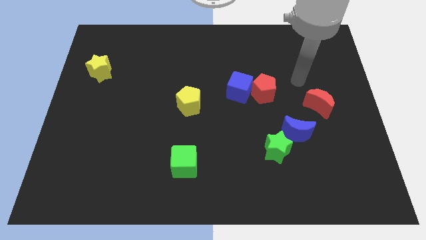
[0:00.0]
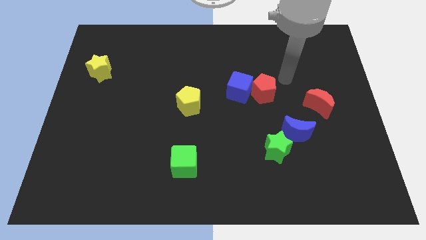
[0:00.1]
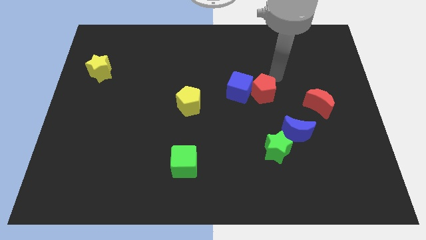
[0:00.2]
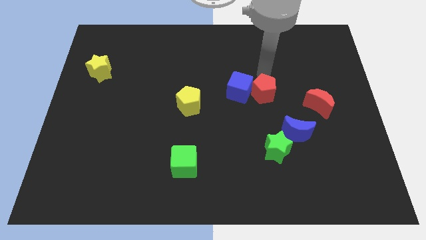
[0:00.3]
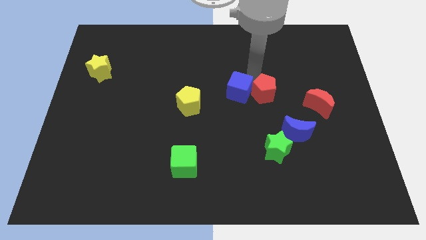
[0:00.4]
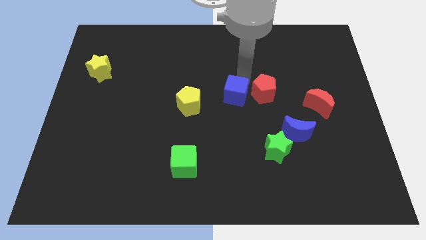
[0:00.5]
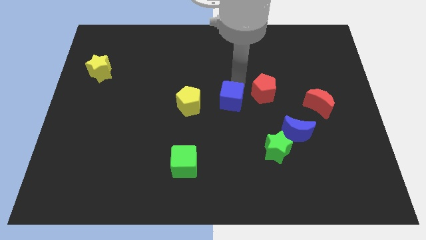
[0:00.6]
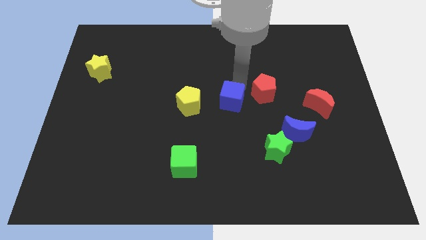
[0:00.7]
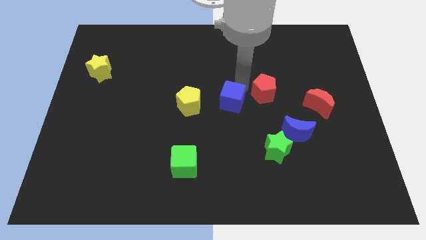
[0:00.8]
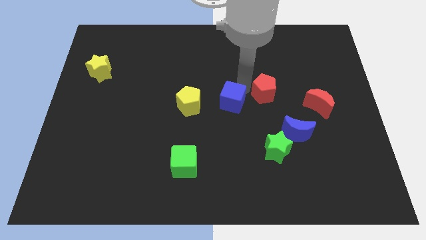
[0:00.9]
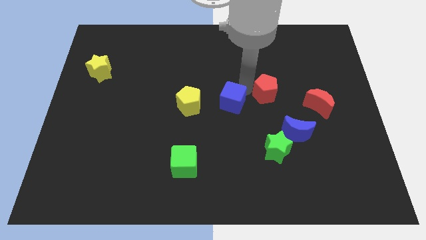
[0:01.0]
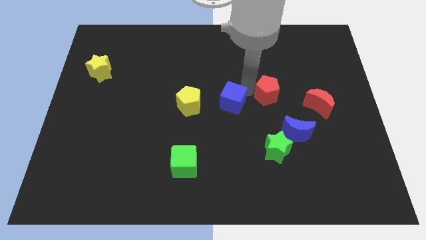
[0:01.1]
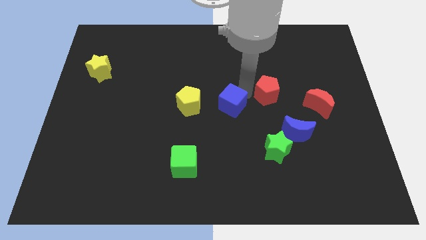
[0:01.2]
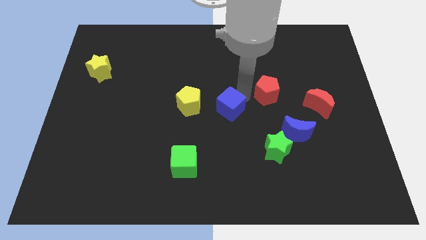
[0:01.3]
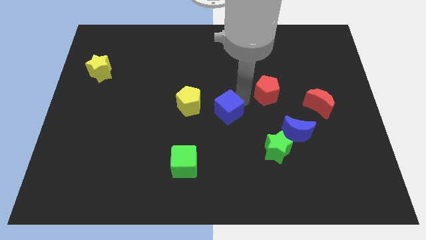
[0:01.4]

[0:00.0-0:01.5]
move the red pentagon away from the blue cube

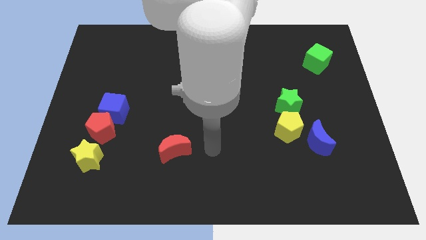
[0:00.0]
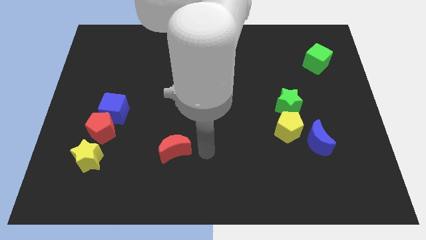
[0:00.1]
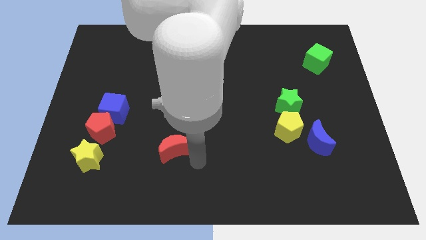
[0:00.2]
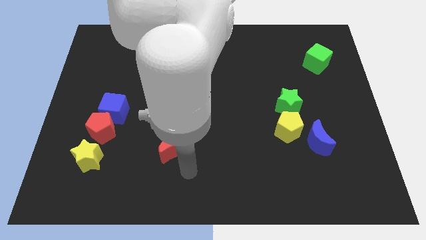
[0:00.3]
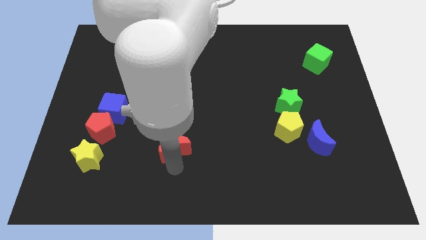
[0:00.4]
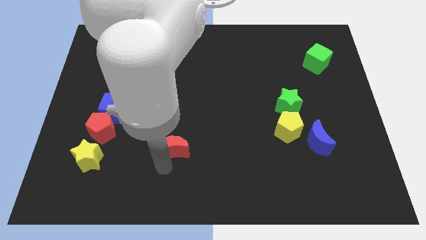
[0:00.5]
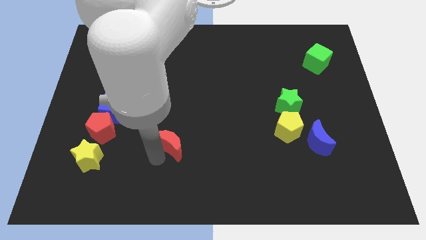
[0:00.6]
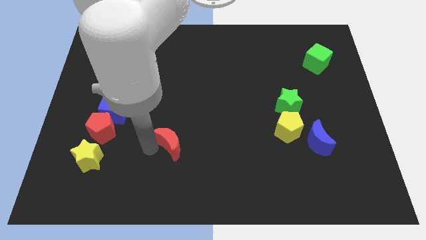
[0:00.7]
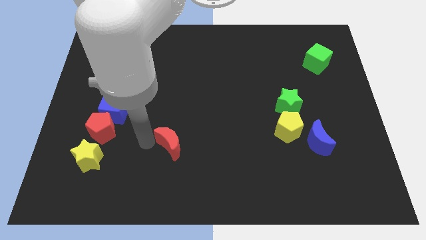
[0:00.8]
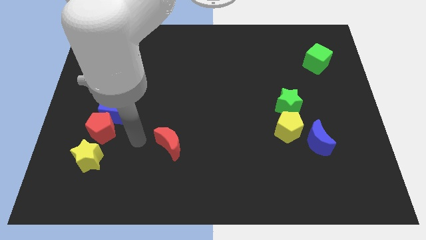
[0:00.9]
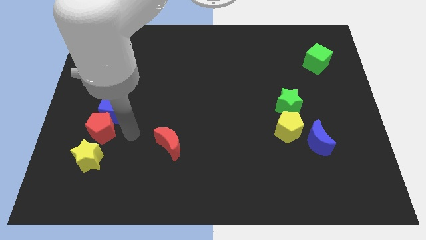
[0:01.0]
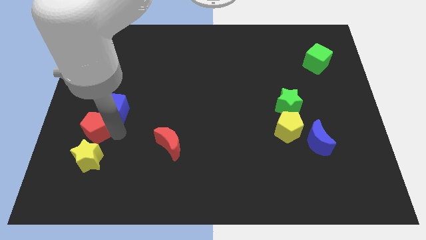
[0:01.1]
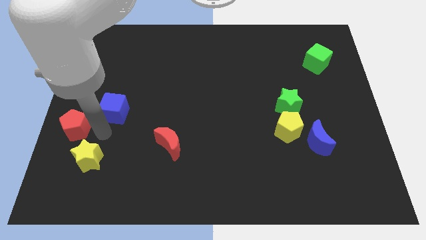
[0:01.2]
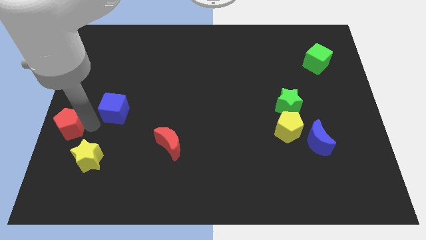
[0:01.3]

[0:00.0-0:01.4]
pull the blue cube apart from the red pentagon

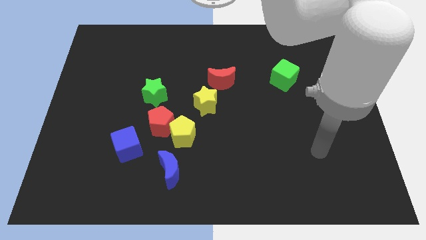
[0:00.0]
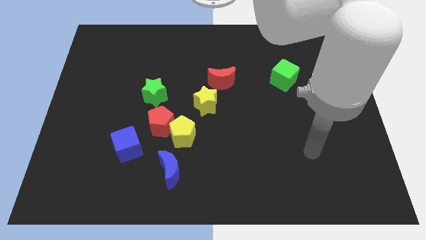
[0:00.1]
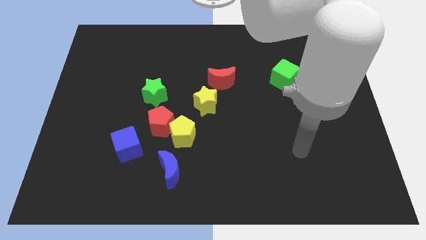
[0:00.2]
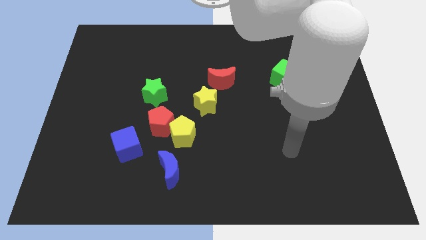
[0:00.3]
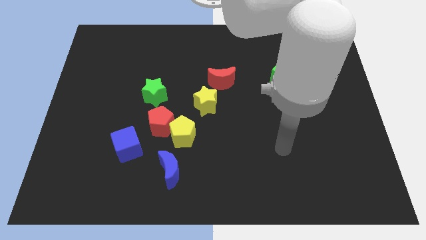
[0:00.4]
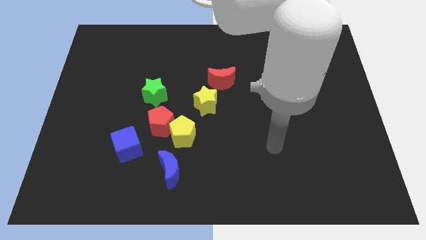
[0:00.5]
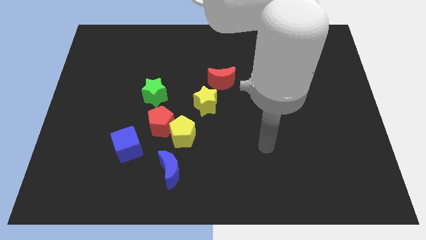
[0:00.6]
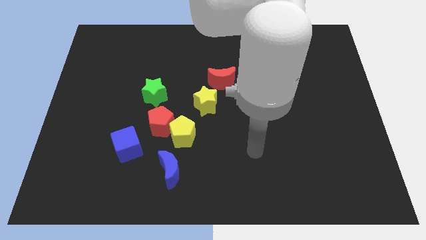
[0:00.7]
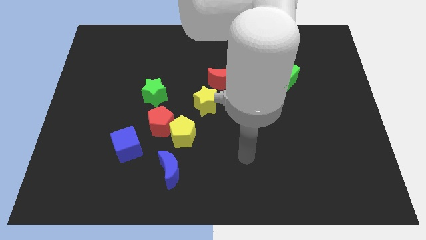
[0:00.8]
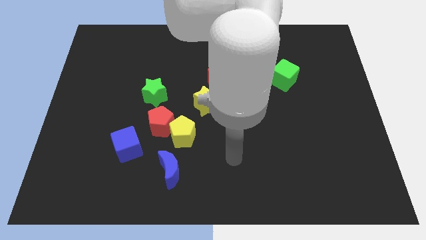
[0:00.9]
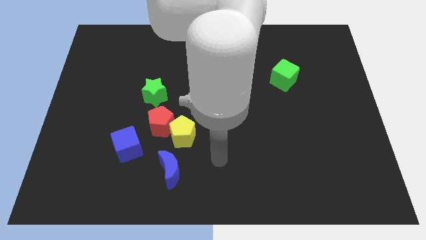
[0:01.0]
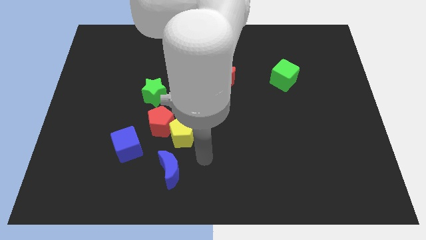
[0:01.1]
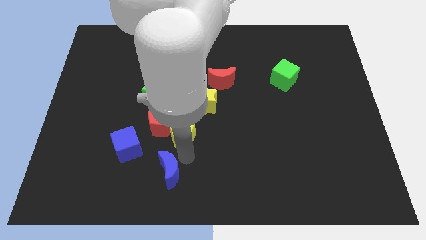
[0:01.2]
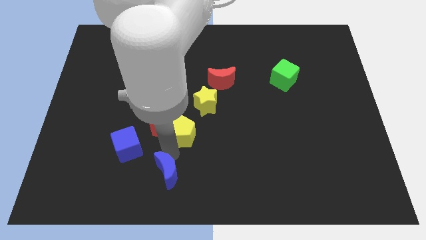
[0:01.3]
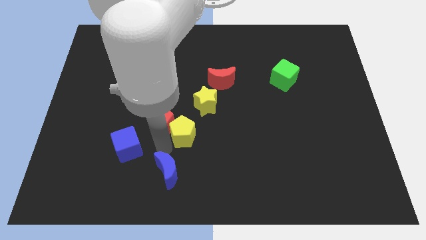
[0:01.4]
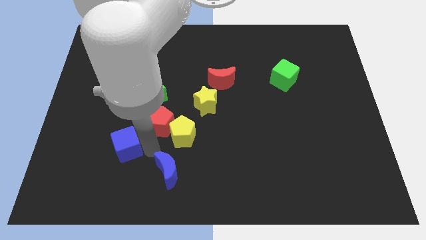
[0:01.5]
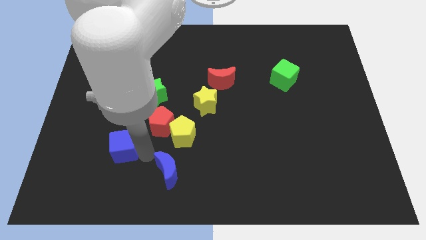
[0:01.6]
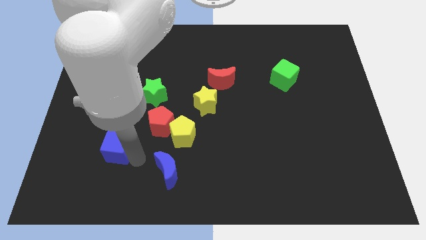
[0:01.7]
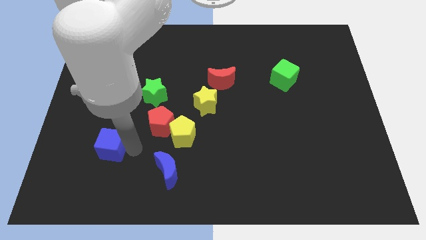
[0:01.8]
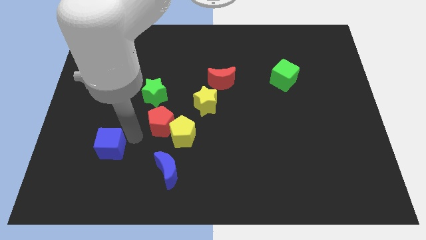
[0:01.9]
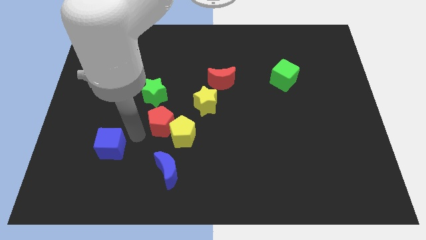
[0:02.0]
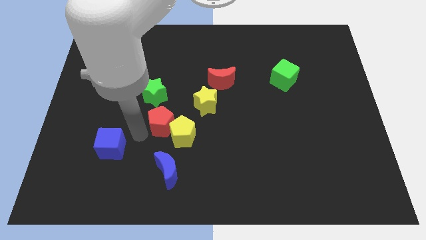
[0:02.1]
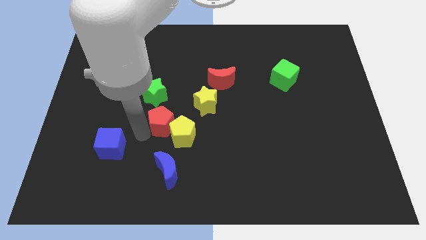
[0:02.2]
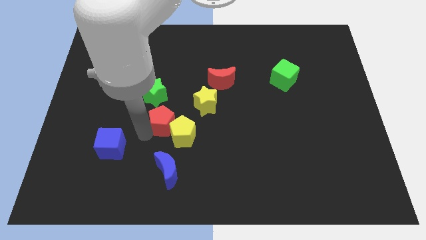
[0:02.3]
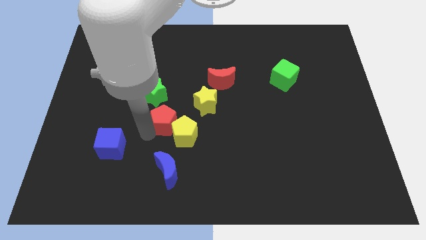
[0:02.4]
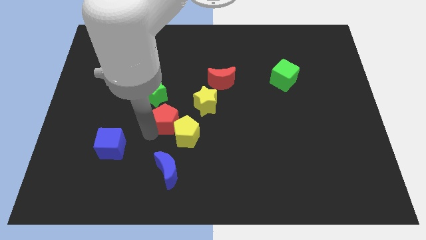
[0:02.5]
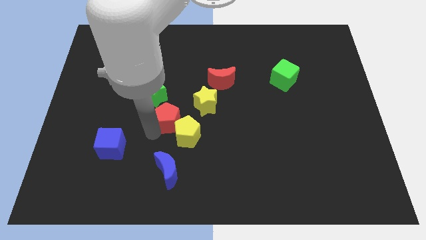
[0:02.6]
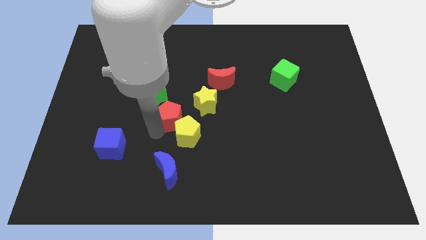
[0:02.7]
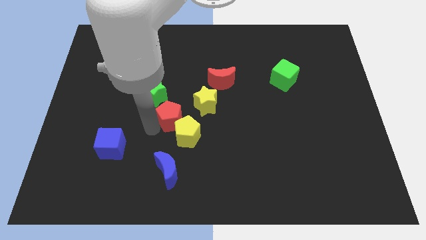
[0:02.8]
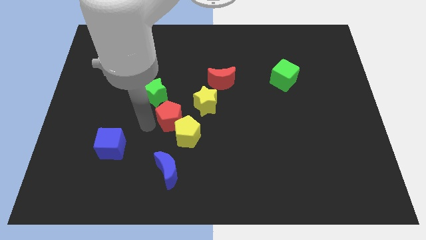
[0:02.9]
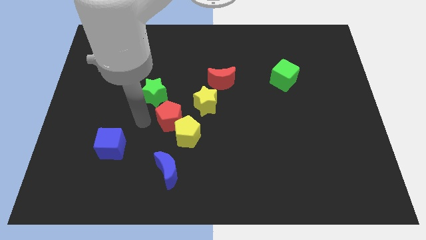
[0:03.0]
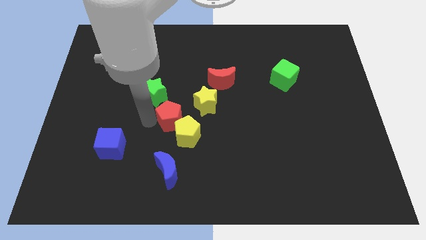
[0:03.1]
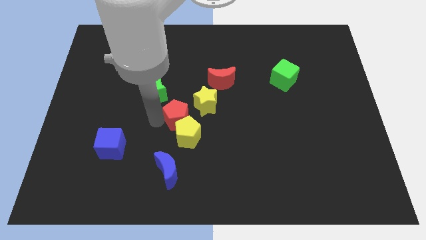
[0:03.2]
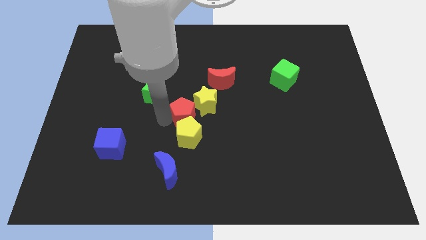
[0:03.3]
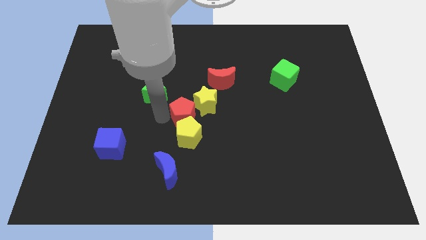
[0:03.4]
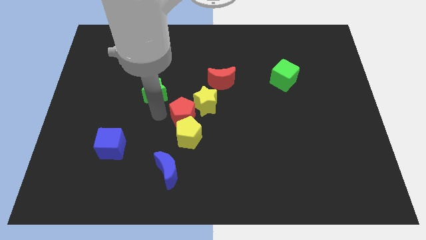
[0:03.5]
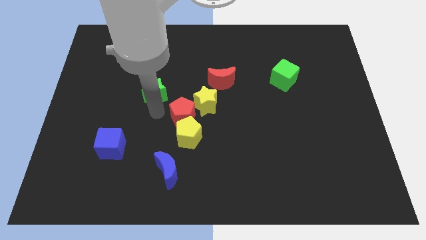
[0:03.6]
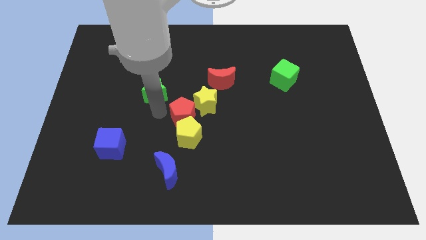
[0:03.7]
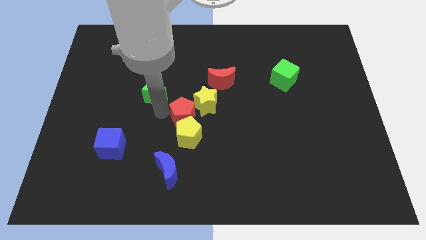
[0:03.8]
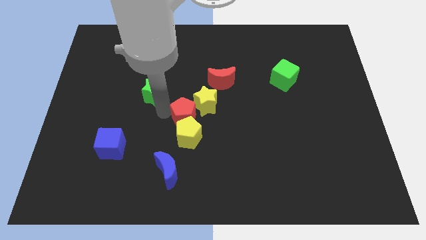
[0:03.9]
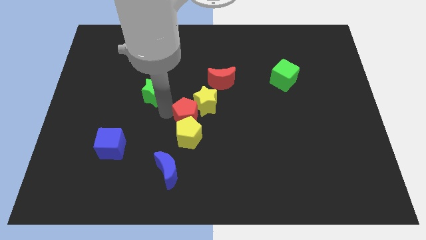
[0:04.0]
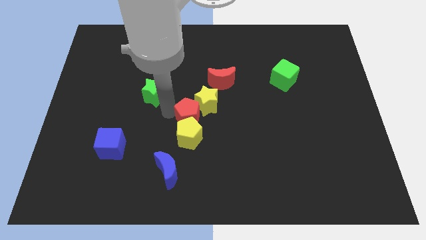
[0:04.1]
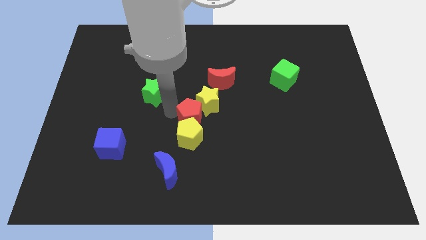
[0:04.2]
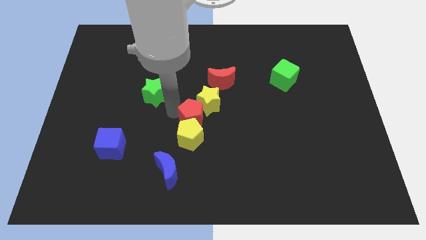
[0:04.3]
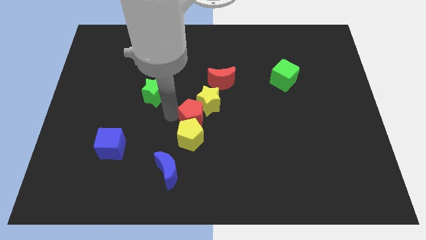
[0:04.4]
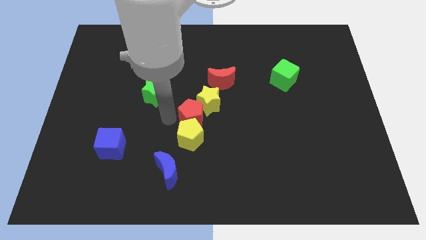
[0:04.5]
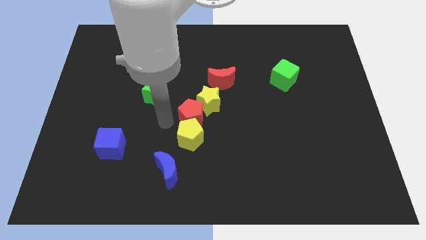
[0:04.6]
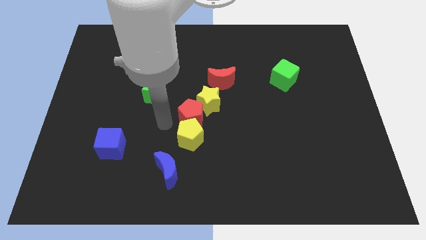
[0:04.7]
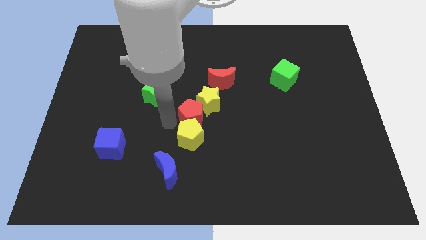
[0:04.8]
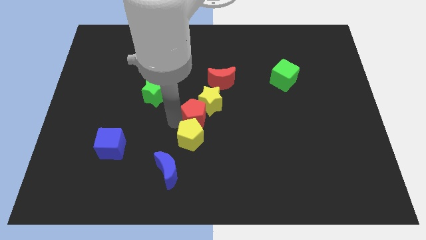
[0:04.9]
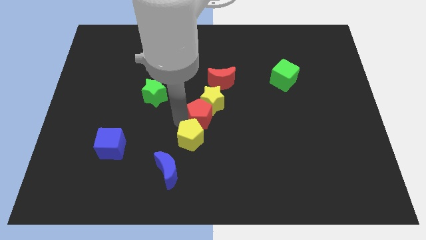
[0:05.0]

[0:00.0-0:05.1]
pull the red pentagon apart from the yellow pentagon, blue cube, and green star

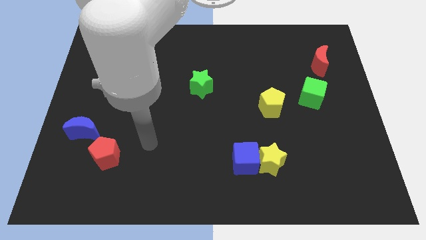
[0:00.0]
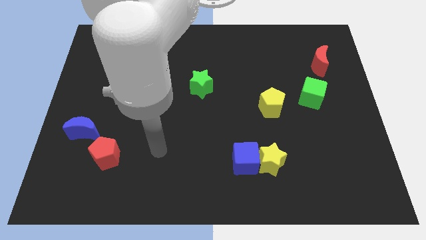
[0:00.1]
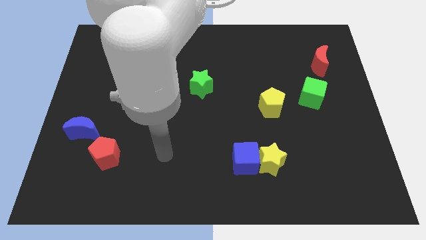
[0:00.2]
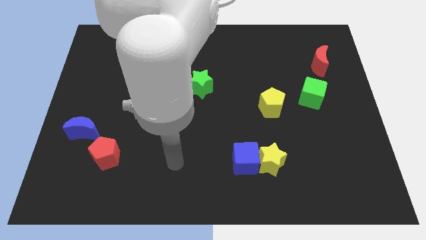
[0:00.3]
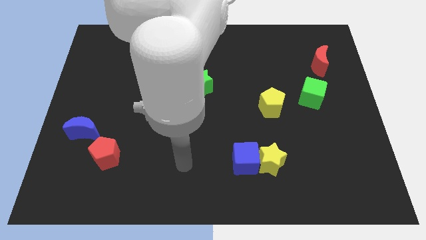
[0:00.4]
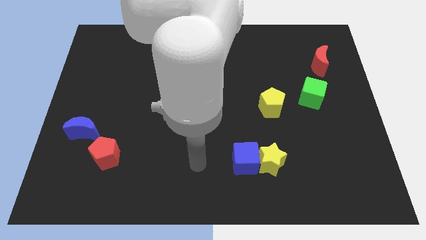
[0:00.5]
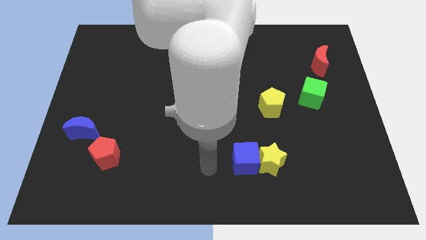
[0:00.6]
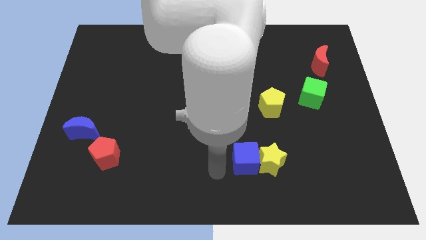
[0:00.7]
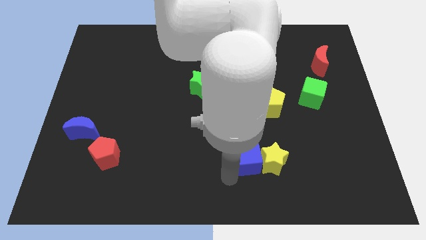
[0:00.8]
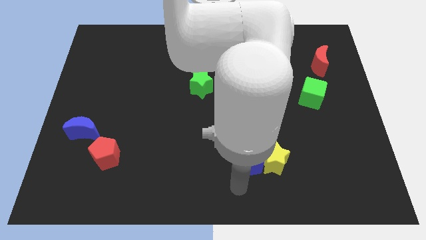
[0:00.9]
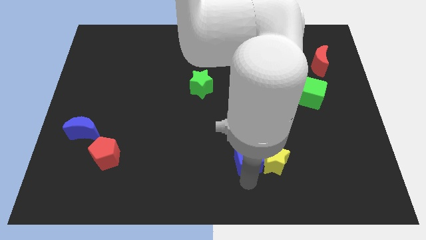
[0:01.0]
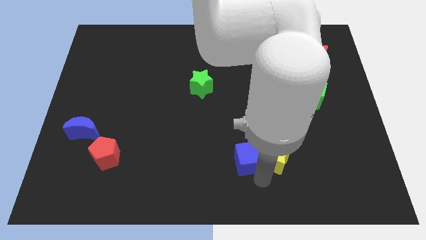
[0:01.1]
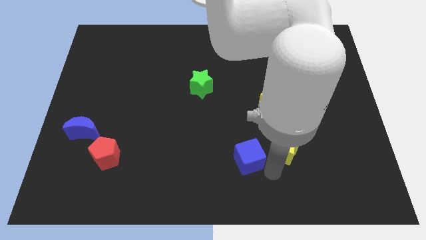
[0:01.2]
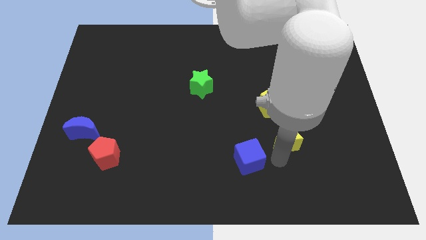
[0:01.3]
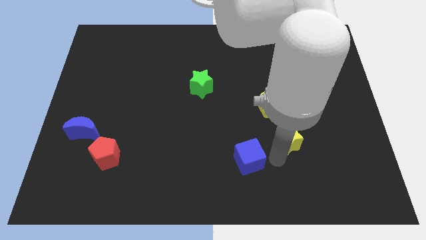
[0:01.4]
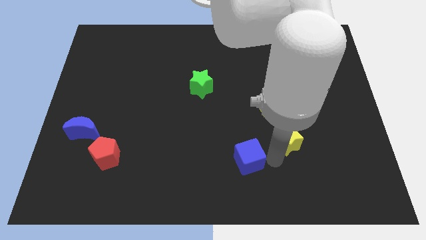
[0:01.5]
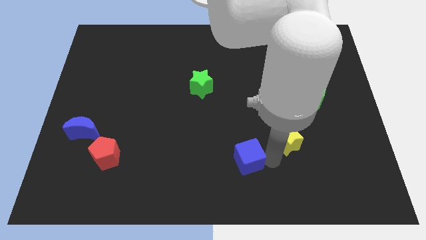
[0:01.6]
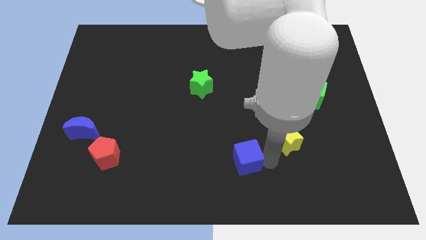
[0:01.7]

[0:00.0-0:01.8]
move the blue cube away from the yellow star
